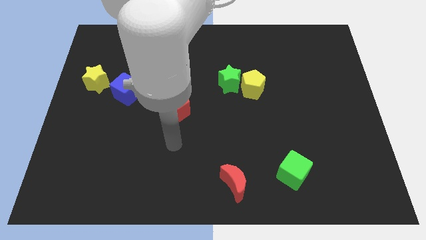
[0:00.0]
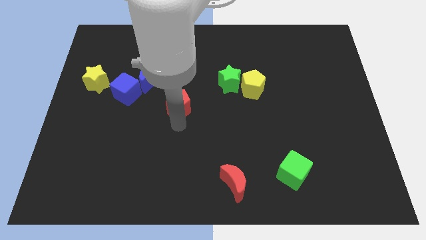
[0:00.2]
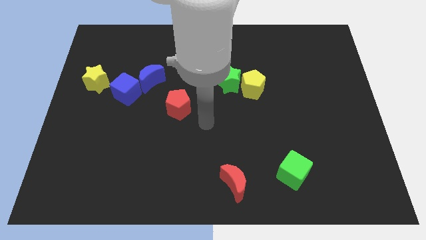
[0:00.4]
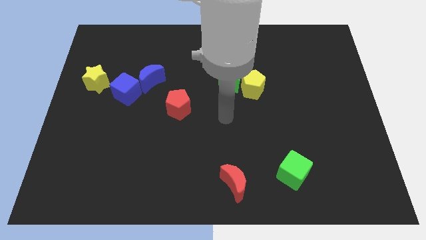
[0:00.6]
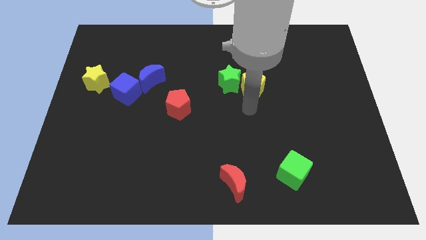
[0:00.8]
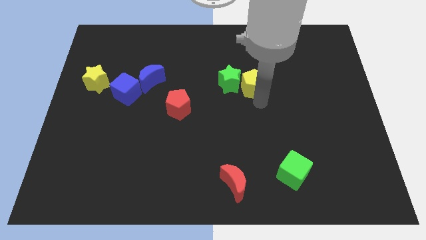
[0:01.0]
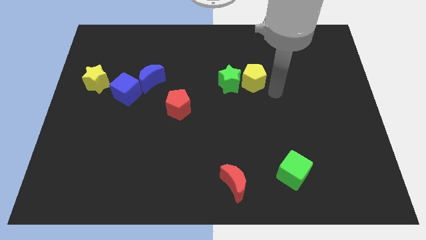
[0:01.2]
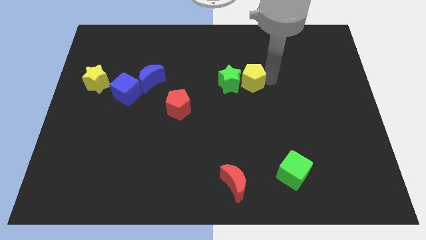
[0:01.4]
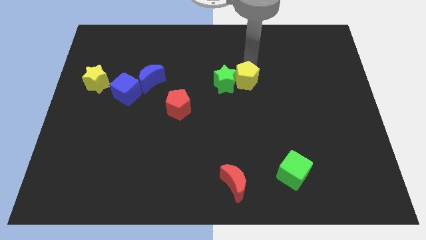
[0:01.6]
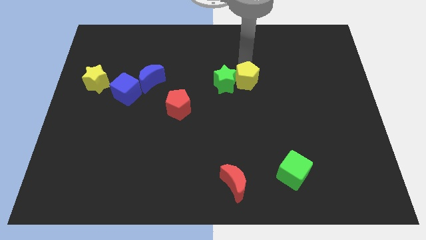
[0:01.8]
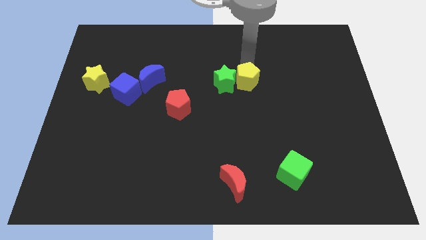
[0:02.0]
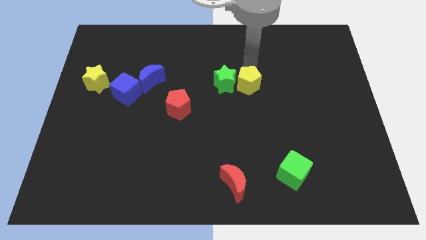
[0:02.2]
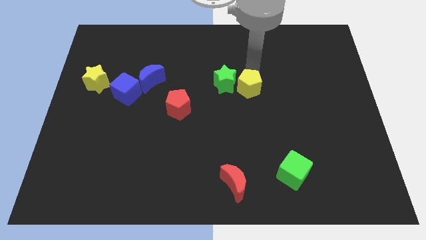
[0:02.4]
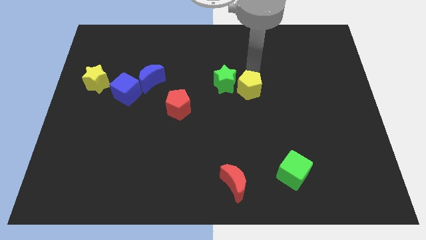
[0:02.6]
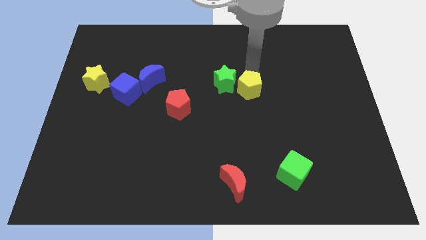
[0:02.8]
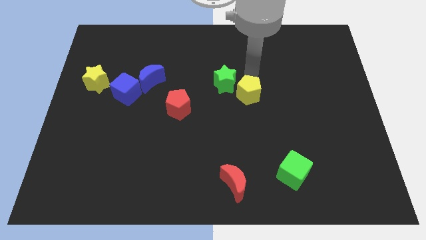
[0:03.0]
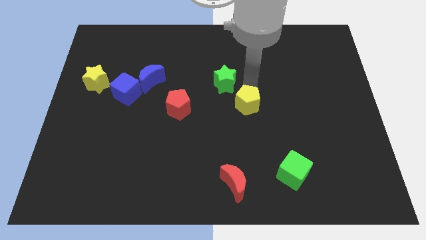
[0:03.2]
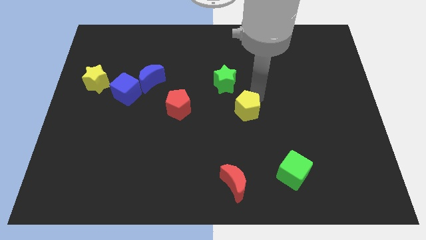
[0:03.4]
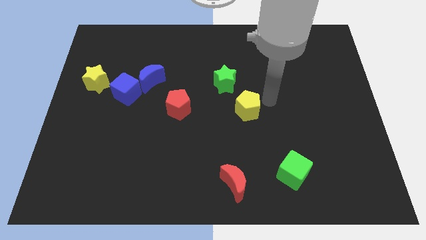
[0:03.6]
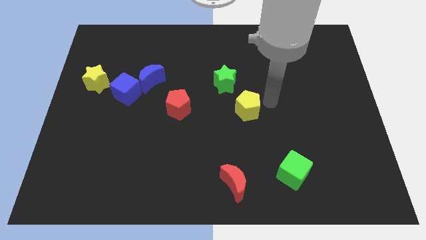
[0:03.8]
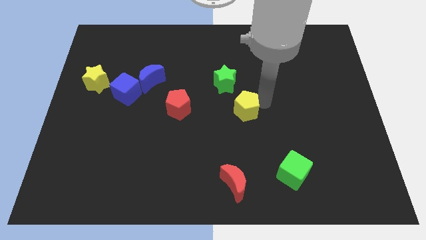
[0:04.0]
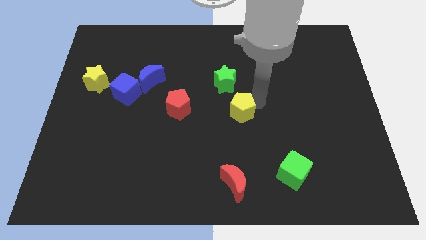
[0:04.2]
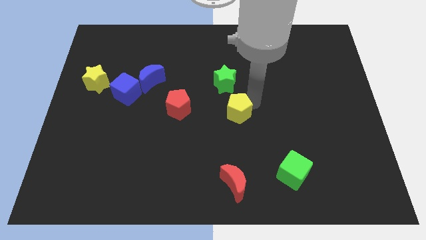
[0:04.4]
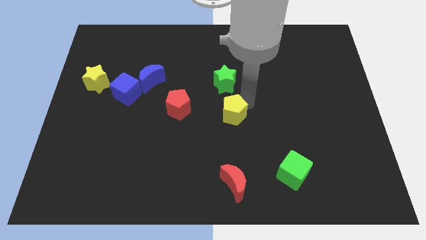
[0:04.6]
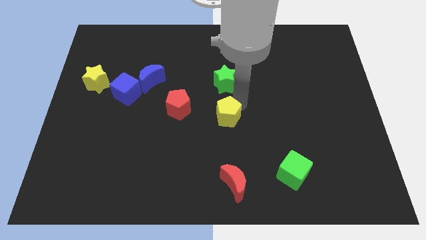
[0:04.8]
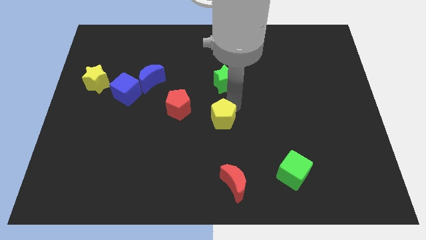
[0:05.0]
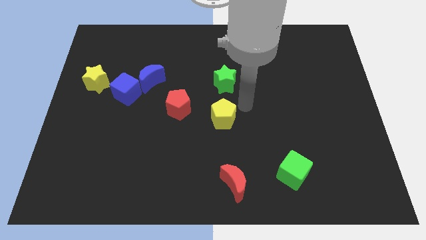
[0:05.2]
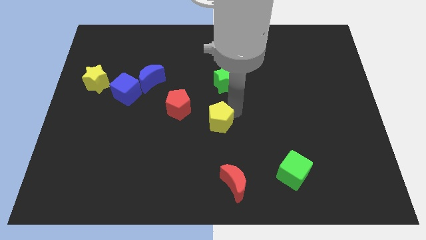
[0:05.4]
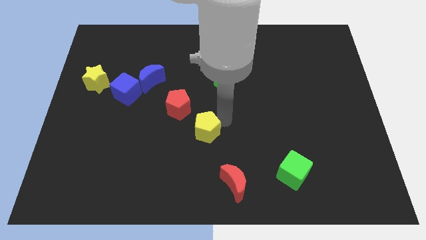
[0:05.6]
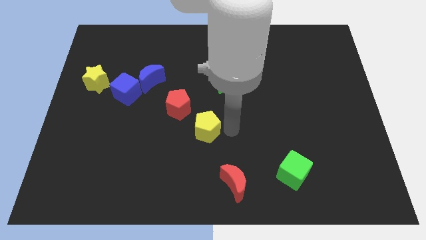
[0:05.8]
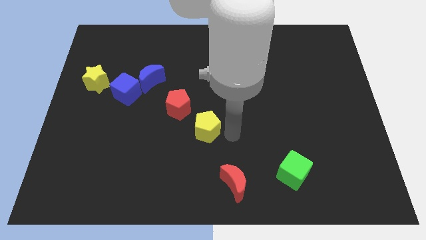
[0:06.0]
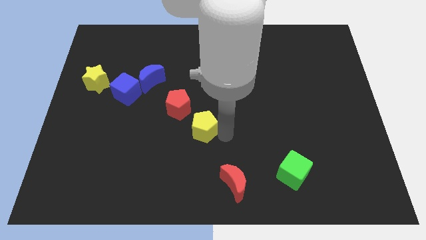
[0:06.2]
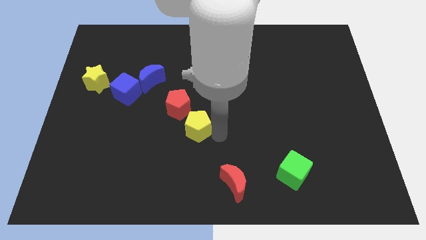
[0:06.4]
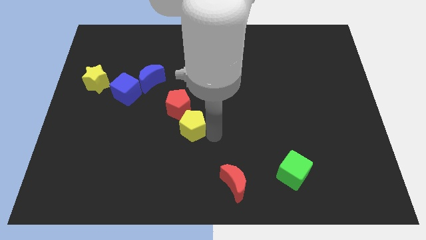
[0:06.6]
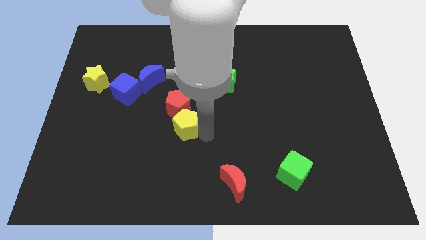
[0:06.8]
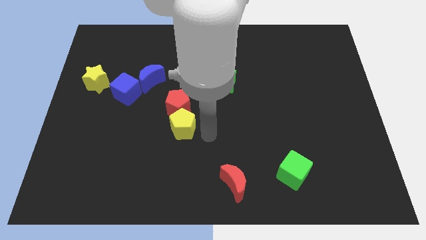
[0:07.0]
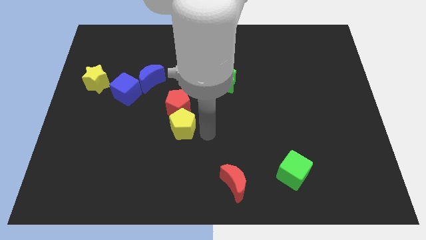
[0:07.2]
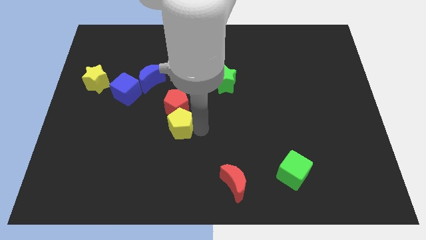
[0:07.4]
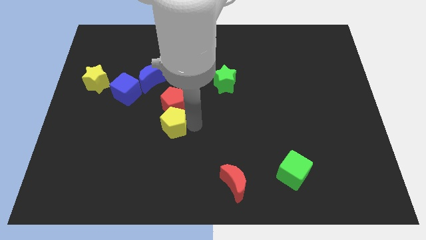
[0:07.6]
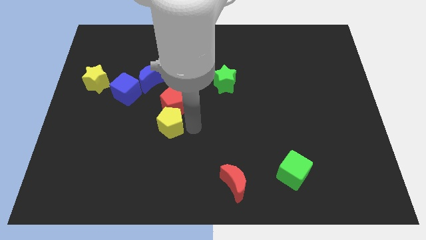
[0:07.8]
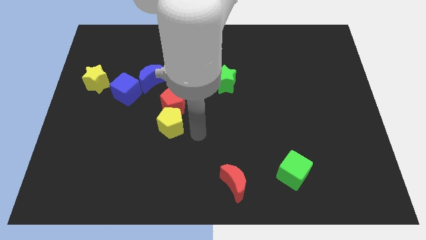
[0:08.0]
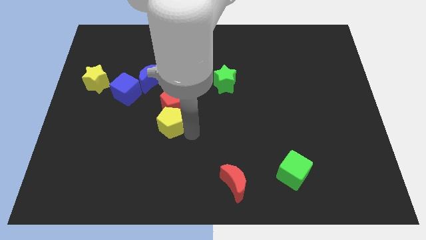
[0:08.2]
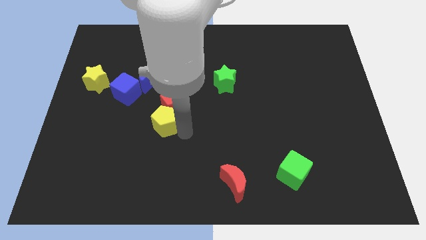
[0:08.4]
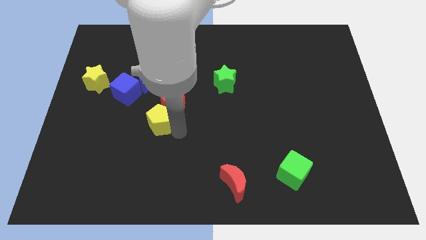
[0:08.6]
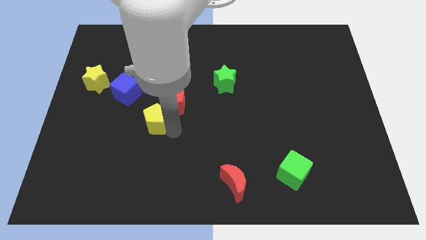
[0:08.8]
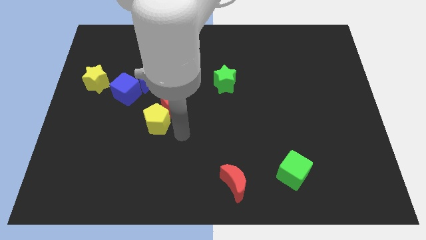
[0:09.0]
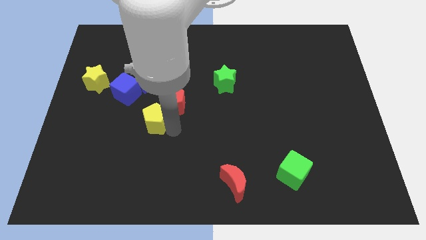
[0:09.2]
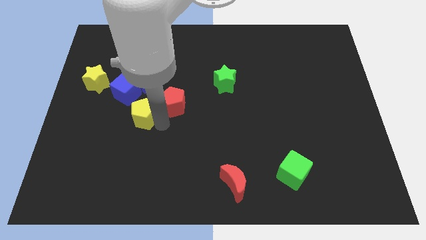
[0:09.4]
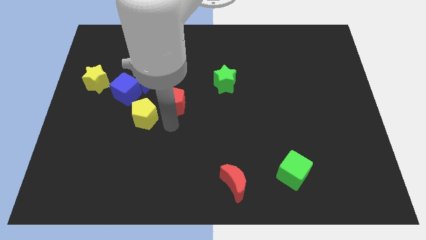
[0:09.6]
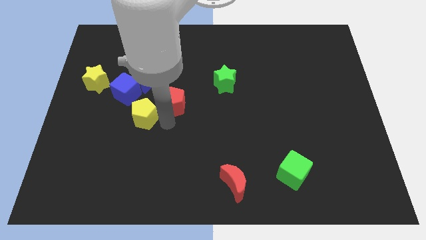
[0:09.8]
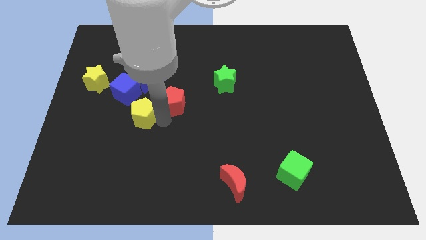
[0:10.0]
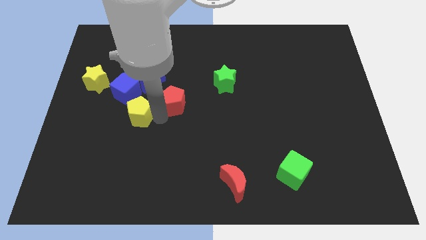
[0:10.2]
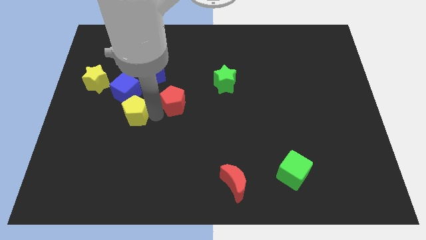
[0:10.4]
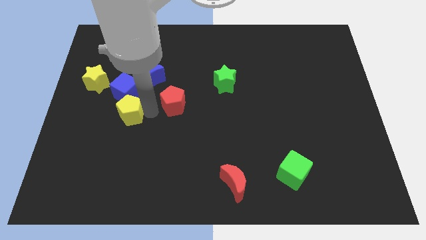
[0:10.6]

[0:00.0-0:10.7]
put the yellow pentagon diagonally down and to the left of the blue moon

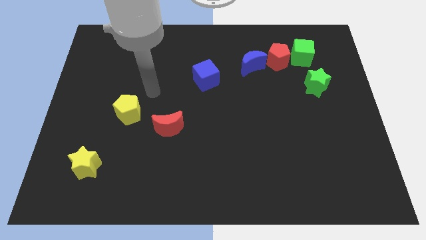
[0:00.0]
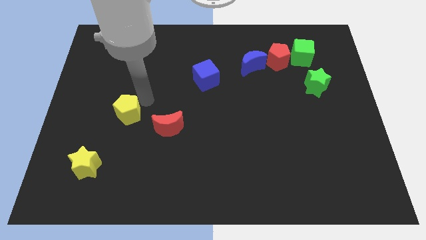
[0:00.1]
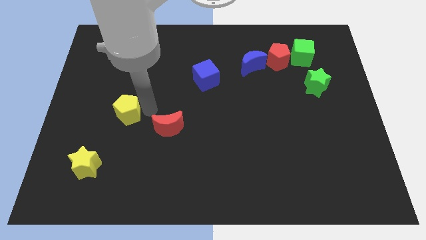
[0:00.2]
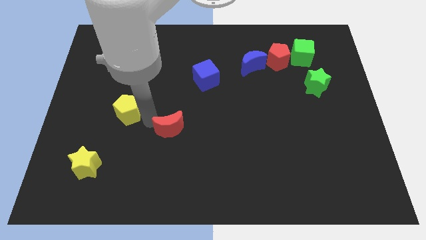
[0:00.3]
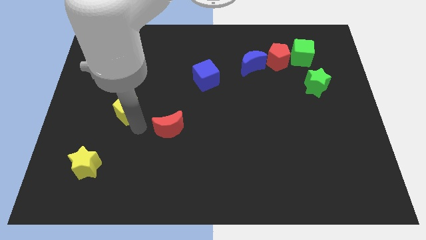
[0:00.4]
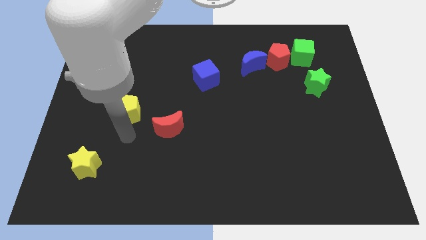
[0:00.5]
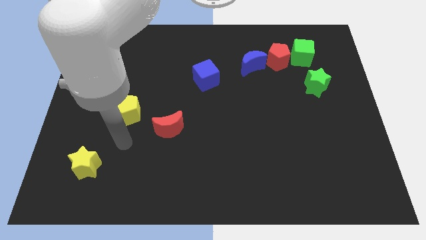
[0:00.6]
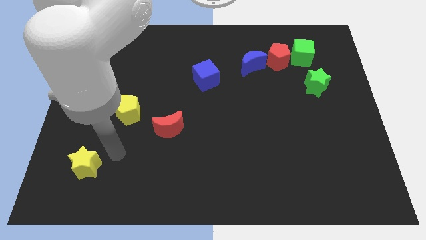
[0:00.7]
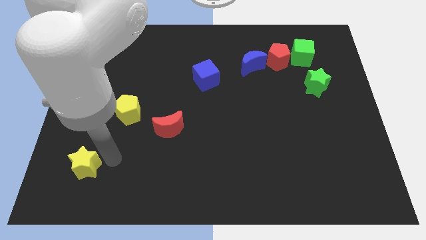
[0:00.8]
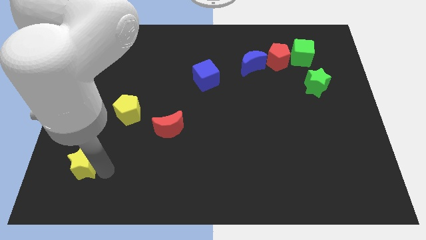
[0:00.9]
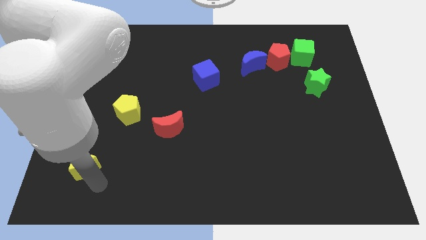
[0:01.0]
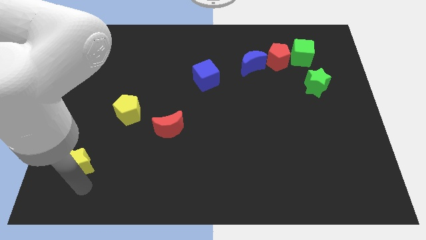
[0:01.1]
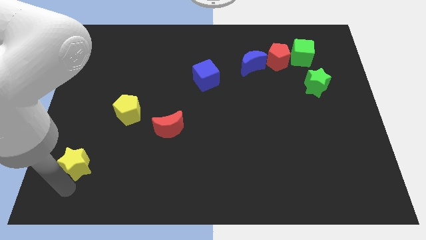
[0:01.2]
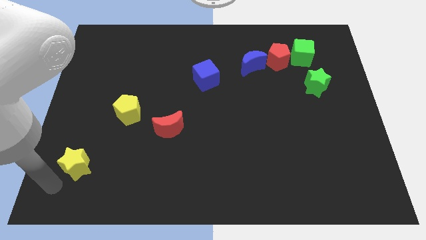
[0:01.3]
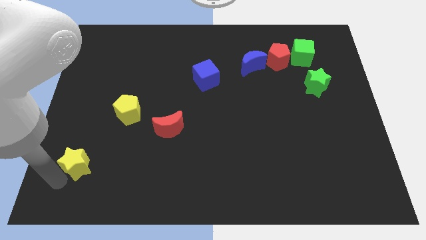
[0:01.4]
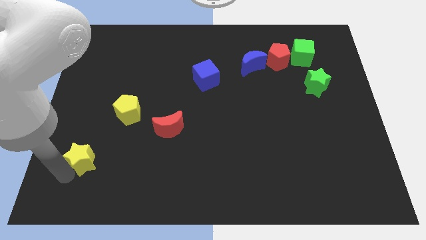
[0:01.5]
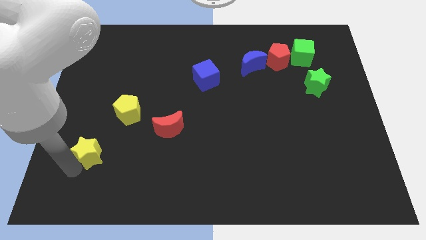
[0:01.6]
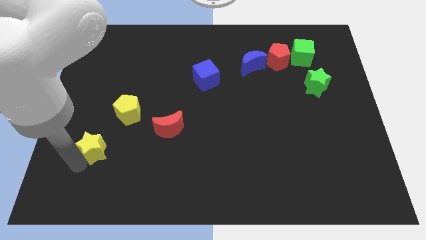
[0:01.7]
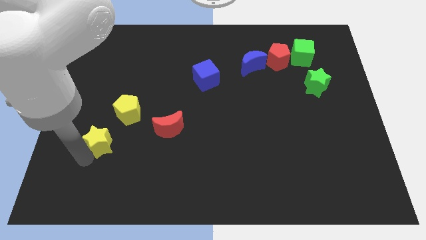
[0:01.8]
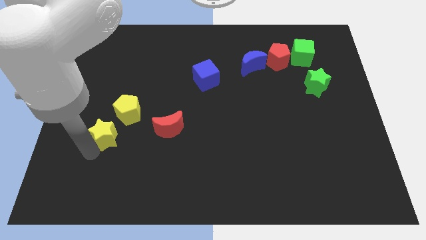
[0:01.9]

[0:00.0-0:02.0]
slide the yellow star just left of the red moon
